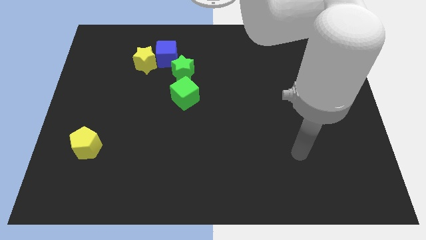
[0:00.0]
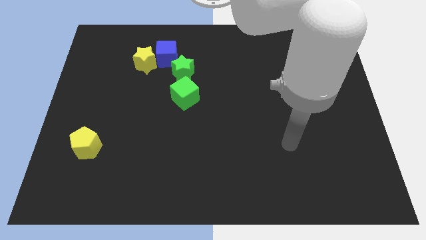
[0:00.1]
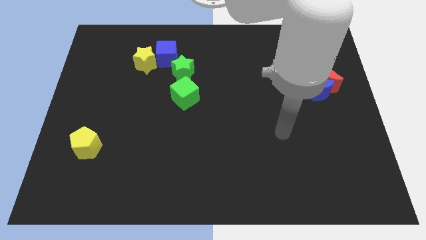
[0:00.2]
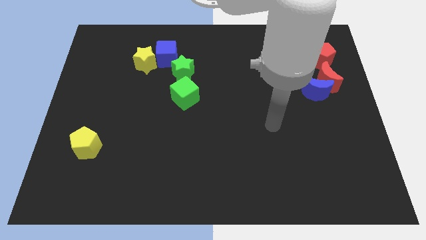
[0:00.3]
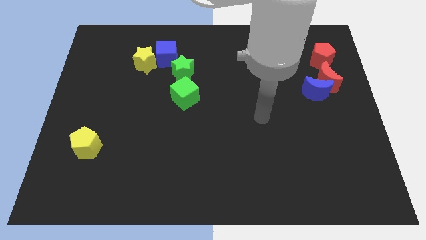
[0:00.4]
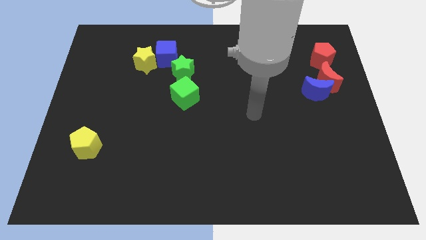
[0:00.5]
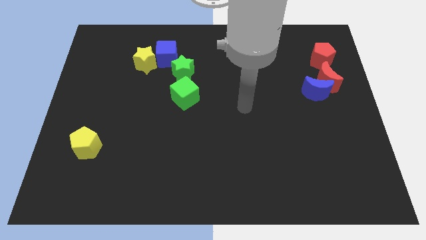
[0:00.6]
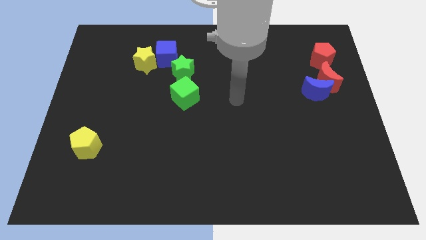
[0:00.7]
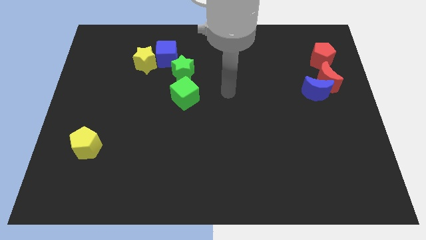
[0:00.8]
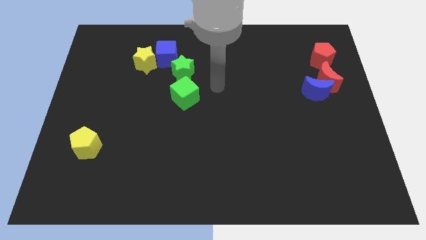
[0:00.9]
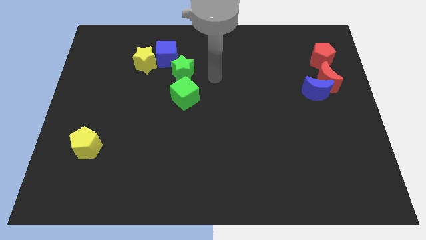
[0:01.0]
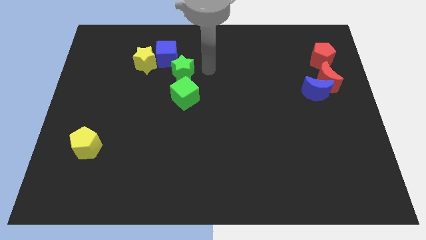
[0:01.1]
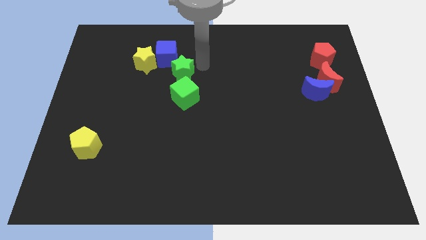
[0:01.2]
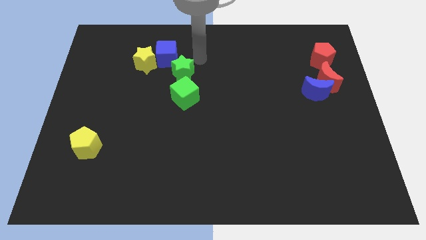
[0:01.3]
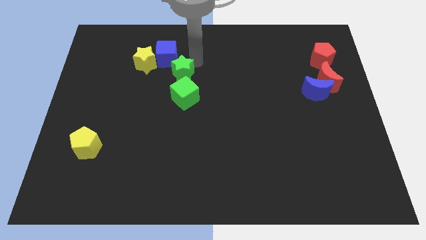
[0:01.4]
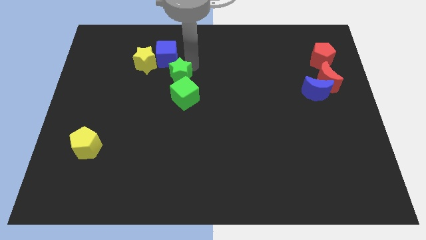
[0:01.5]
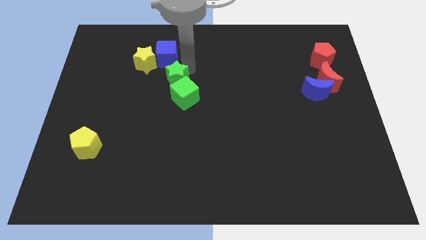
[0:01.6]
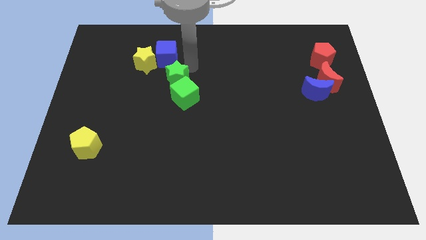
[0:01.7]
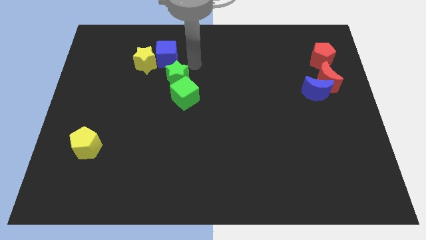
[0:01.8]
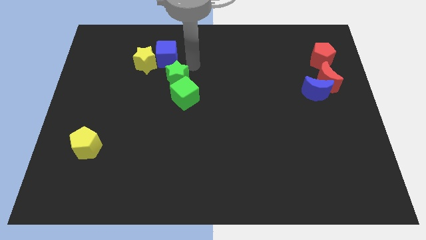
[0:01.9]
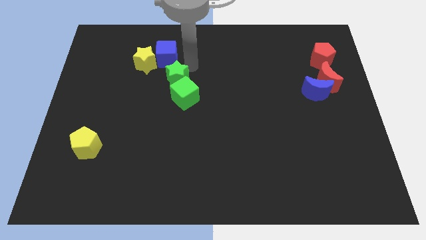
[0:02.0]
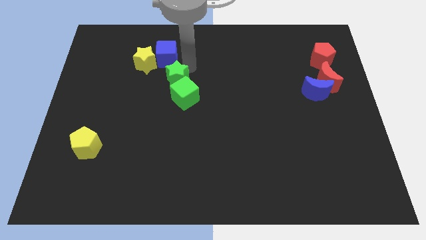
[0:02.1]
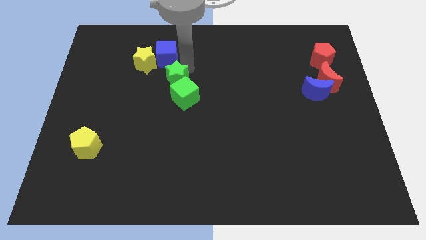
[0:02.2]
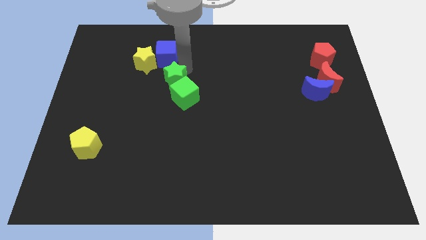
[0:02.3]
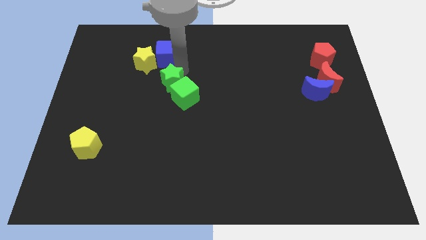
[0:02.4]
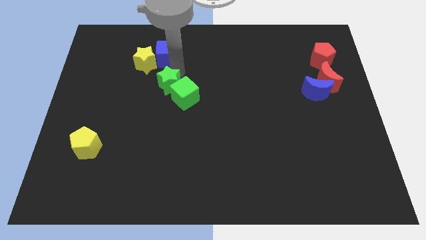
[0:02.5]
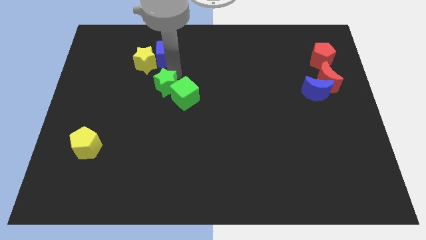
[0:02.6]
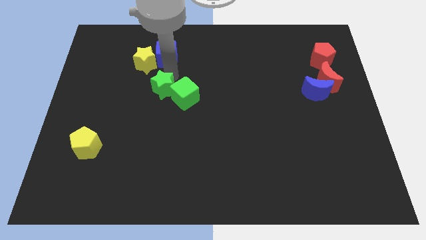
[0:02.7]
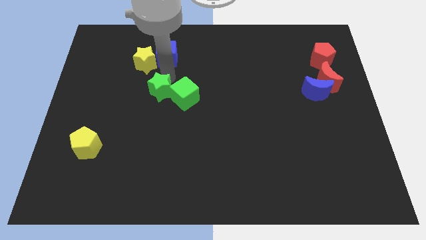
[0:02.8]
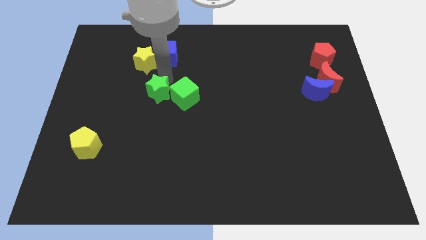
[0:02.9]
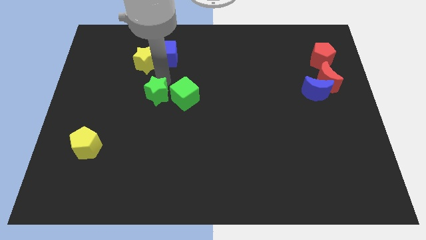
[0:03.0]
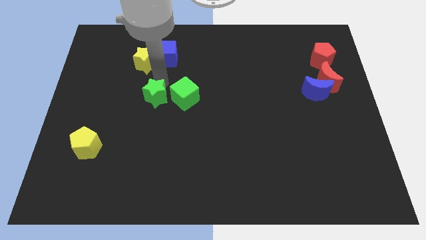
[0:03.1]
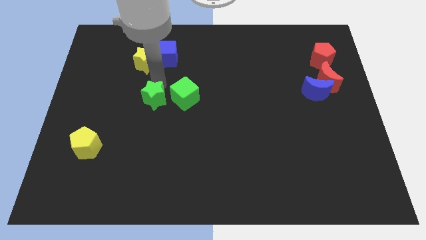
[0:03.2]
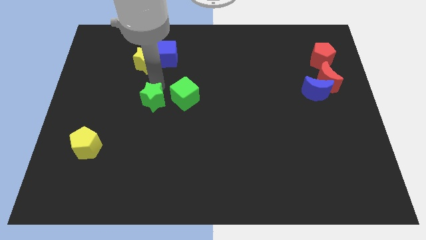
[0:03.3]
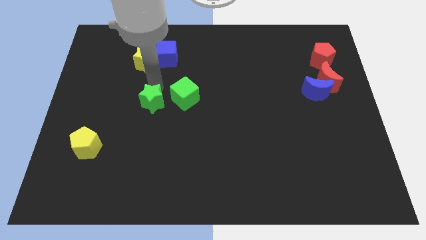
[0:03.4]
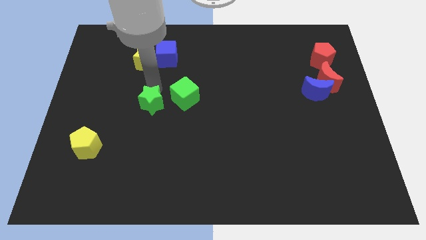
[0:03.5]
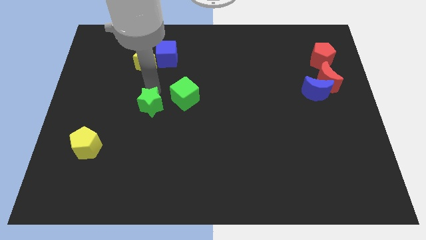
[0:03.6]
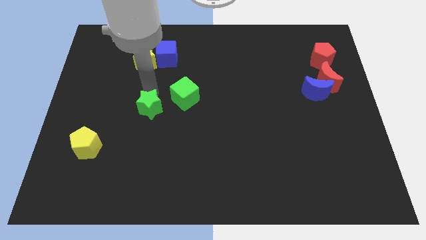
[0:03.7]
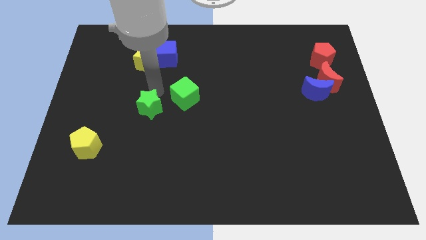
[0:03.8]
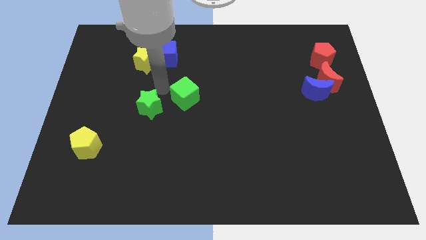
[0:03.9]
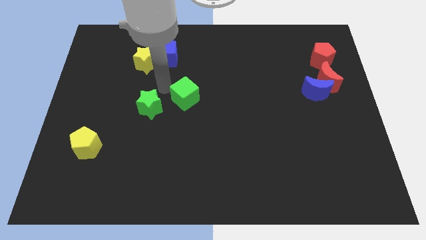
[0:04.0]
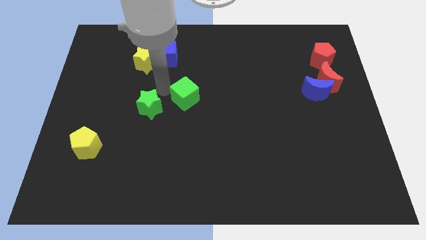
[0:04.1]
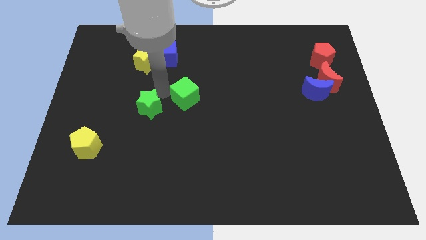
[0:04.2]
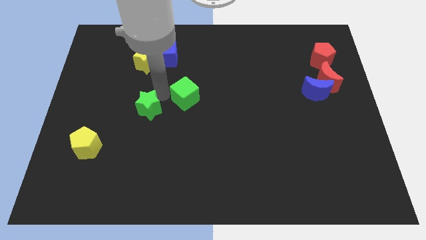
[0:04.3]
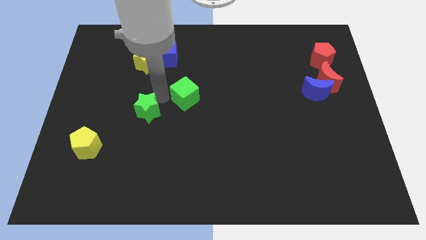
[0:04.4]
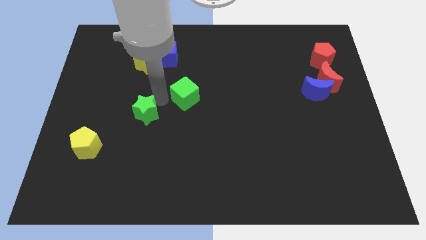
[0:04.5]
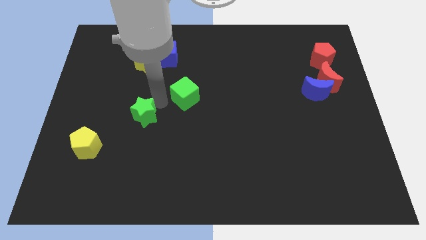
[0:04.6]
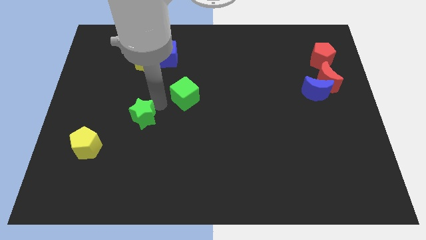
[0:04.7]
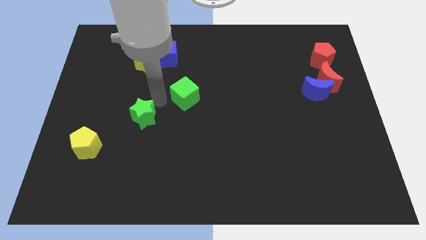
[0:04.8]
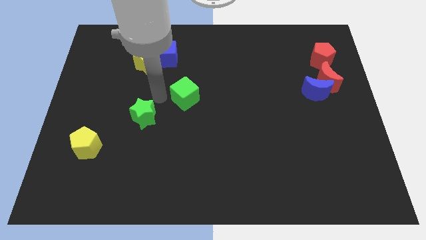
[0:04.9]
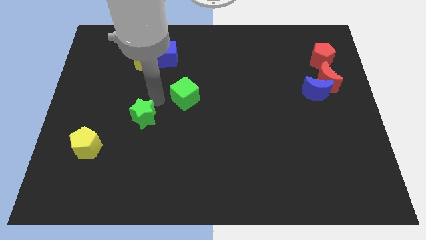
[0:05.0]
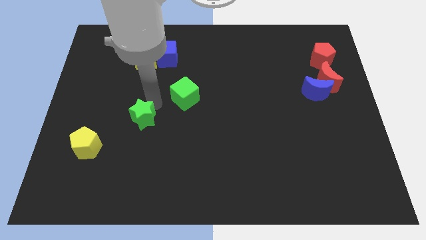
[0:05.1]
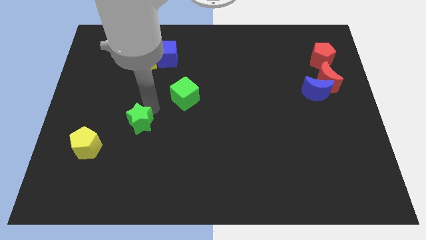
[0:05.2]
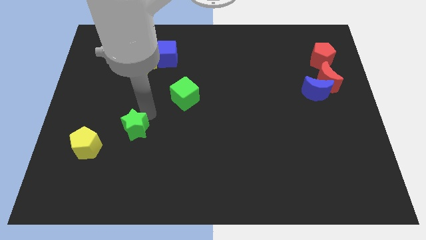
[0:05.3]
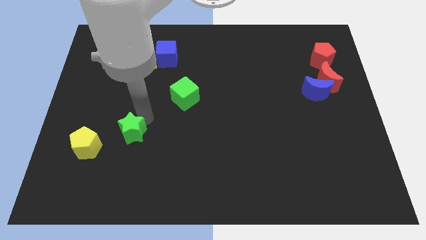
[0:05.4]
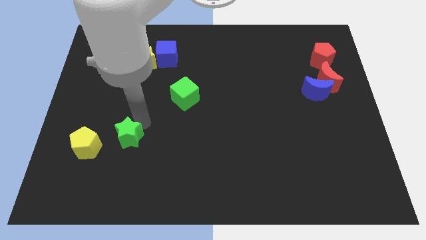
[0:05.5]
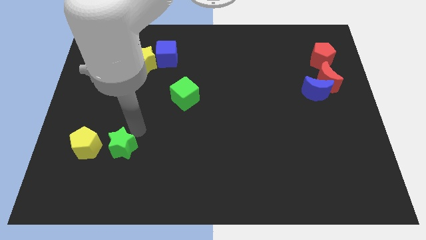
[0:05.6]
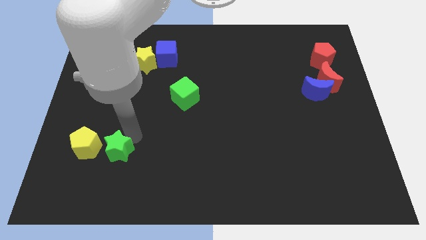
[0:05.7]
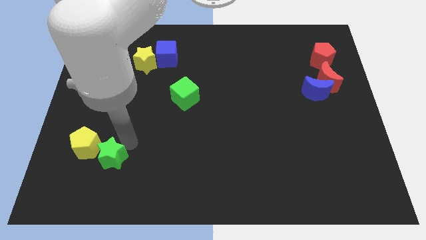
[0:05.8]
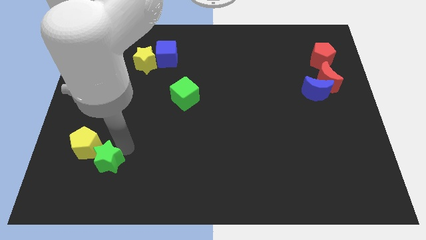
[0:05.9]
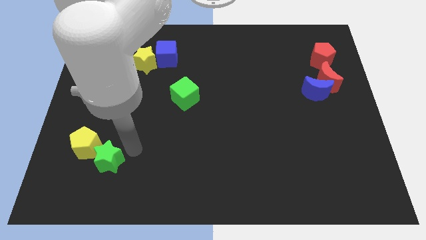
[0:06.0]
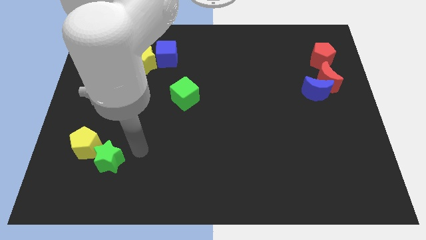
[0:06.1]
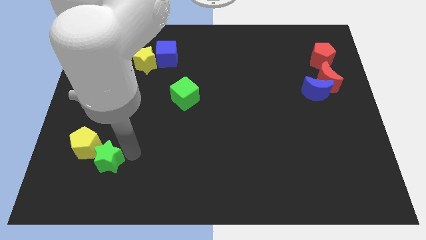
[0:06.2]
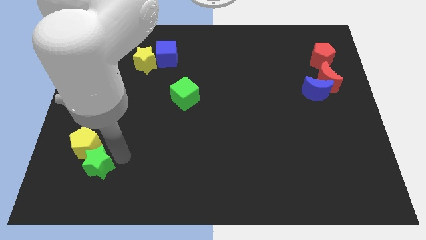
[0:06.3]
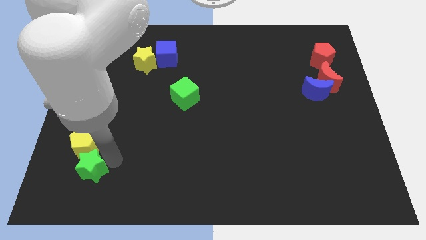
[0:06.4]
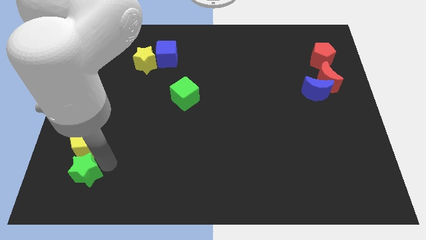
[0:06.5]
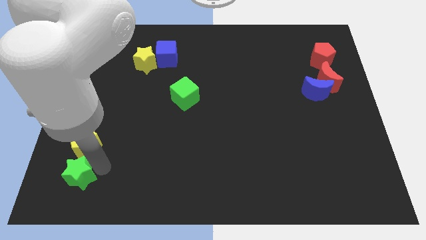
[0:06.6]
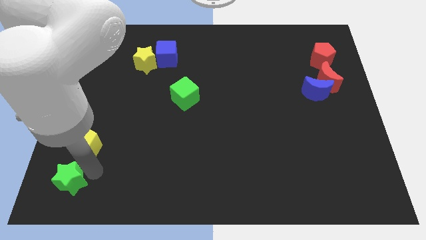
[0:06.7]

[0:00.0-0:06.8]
push the green star to the bottom left corner
